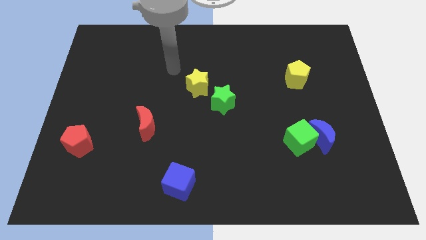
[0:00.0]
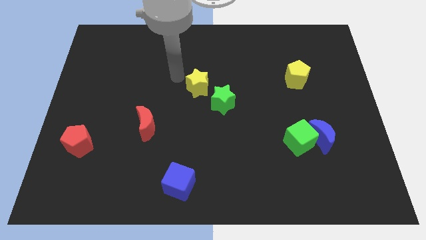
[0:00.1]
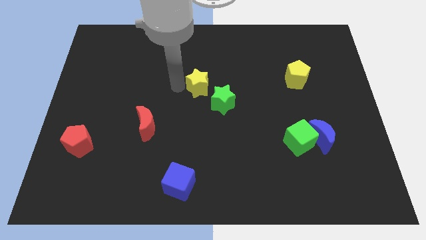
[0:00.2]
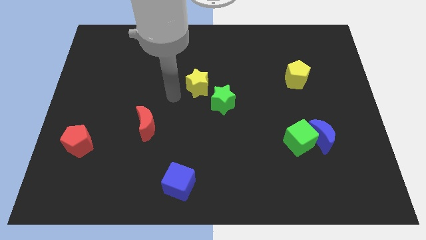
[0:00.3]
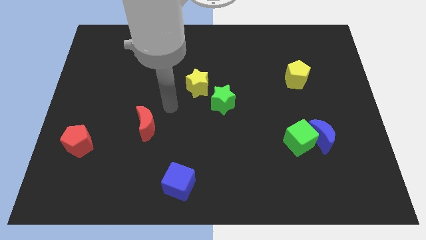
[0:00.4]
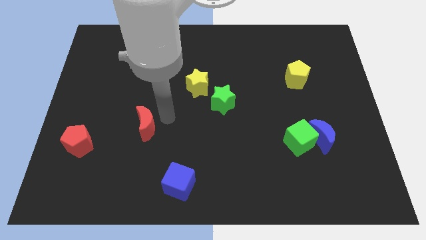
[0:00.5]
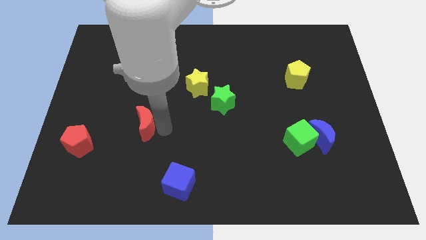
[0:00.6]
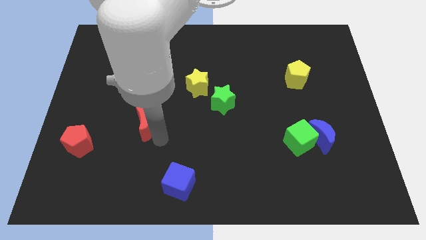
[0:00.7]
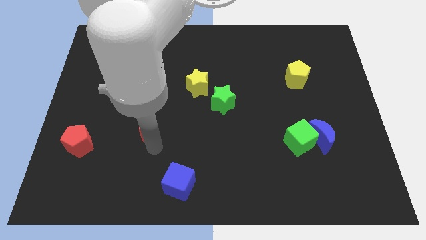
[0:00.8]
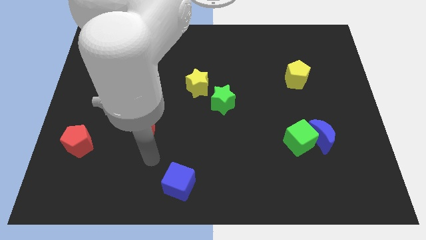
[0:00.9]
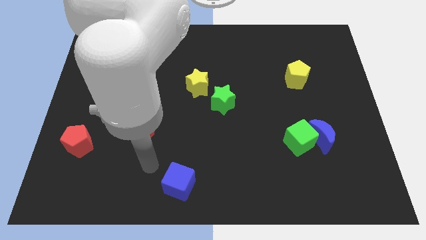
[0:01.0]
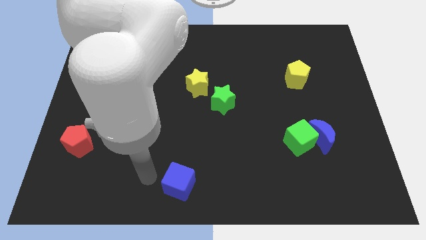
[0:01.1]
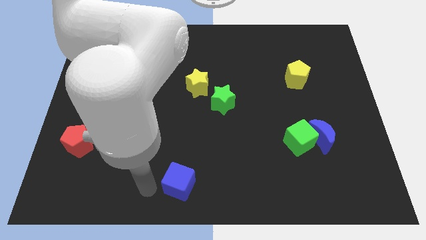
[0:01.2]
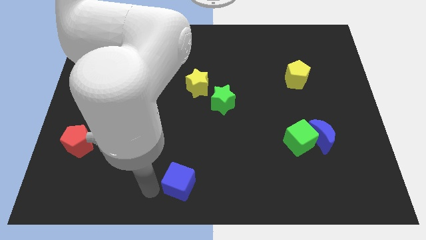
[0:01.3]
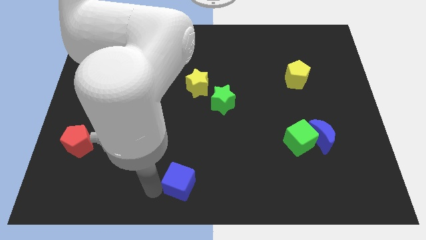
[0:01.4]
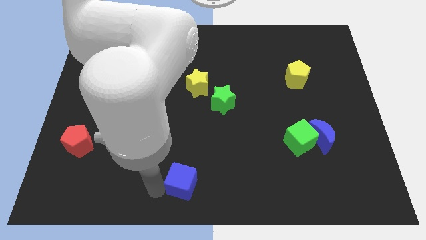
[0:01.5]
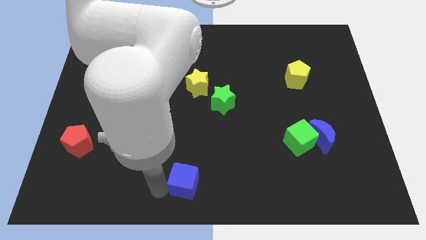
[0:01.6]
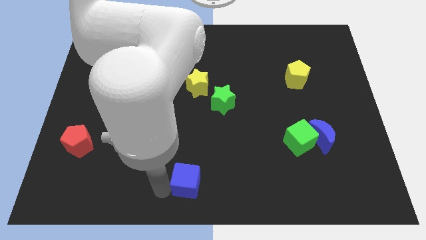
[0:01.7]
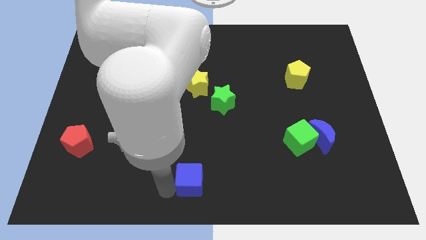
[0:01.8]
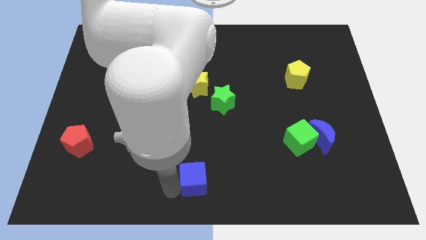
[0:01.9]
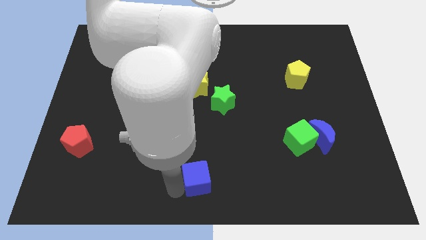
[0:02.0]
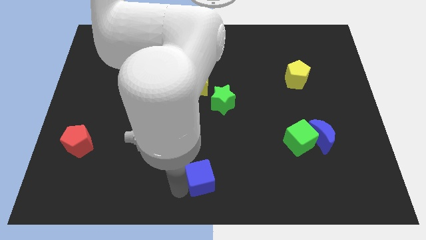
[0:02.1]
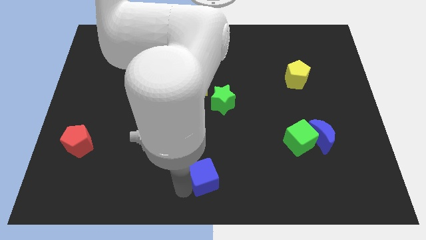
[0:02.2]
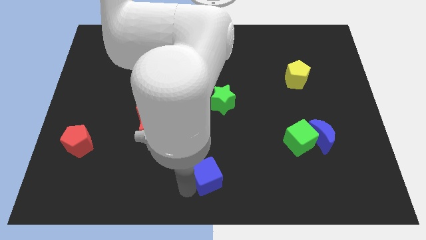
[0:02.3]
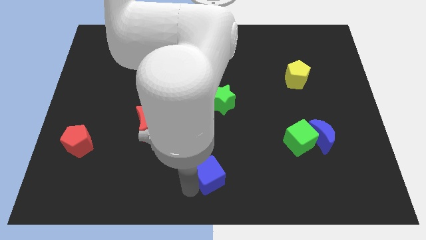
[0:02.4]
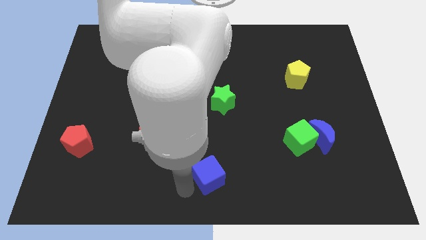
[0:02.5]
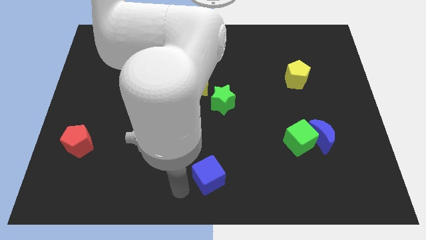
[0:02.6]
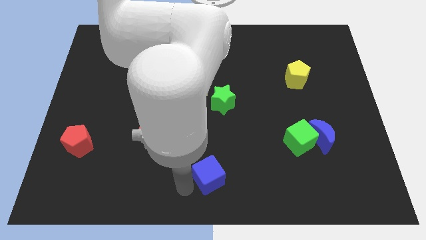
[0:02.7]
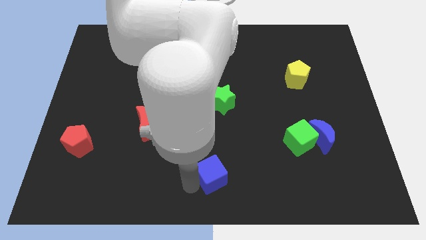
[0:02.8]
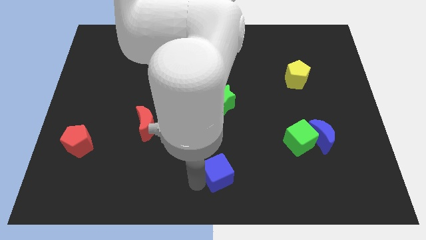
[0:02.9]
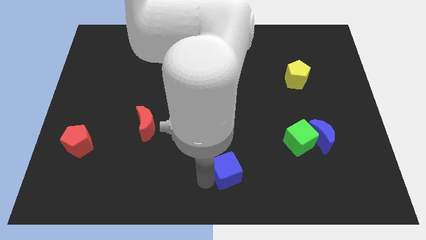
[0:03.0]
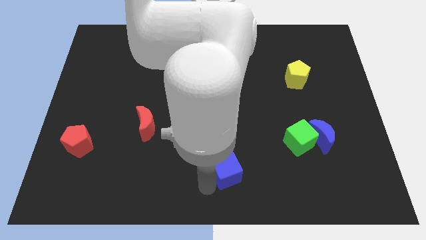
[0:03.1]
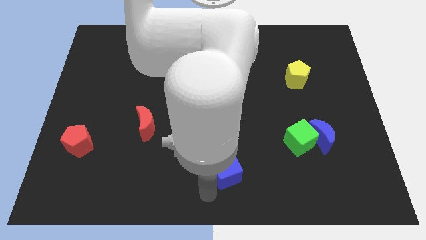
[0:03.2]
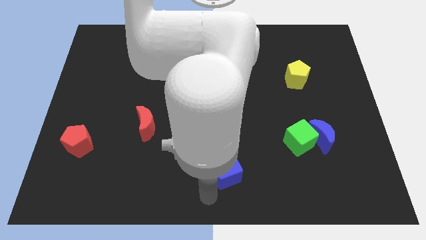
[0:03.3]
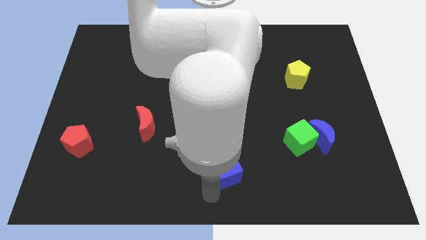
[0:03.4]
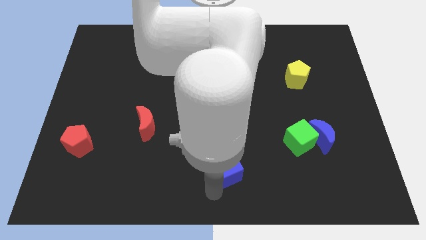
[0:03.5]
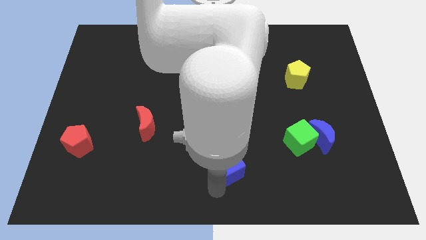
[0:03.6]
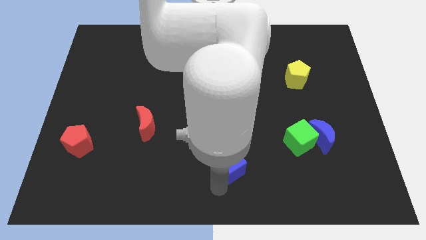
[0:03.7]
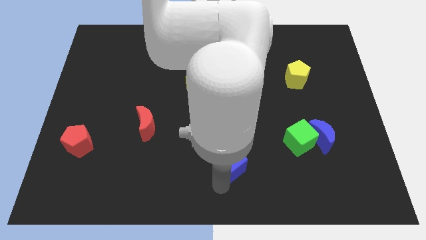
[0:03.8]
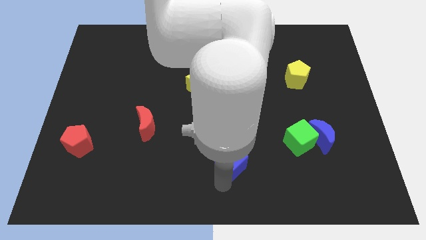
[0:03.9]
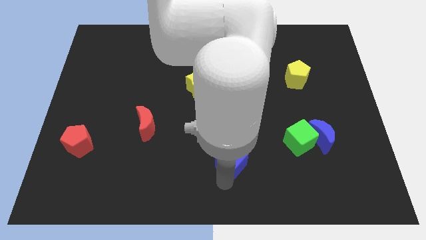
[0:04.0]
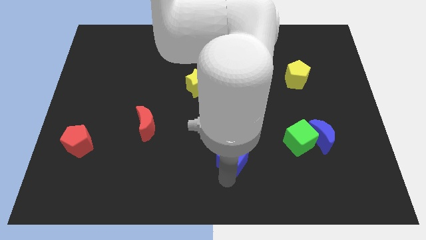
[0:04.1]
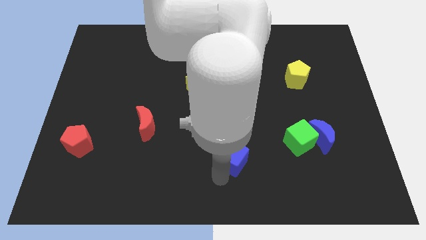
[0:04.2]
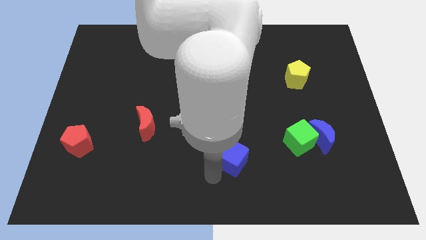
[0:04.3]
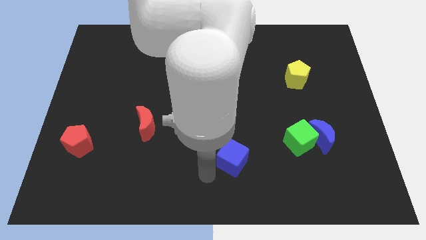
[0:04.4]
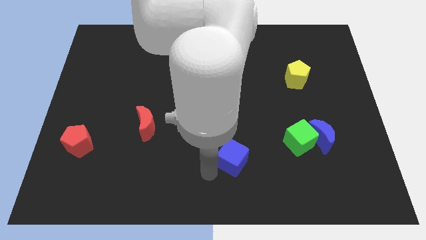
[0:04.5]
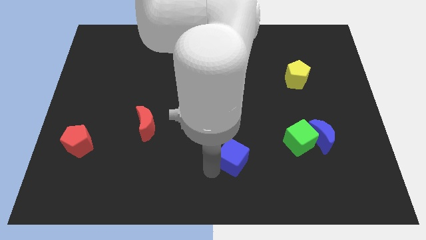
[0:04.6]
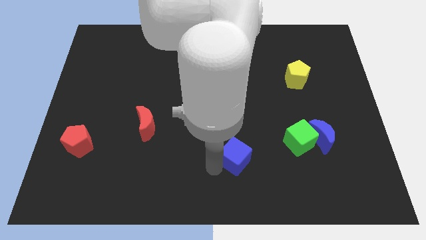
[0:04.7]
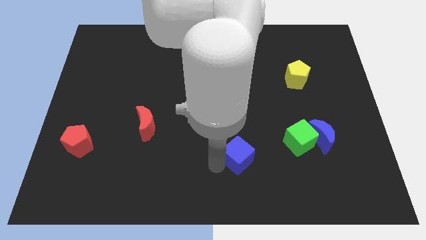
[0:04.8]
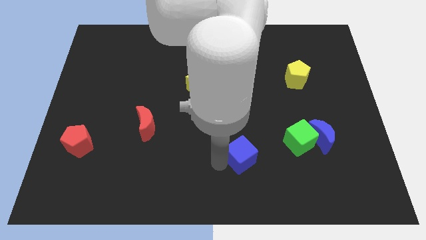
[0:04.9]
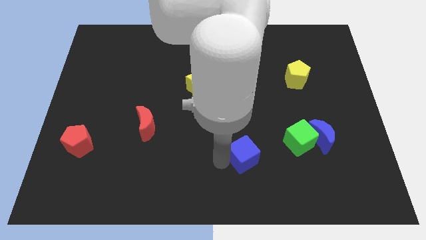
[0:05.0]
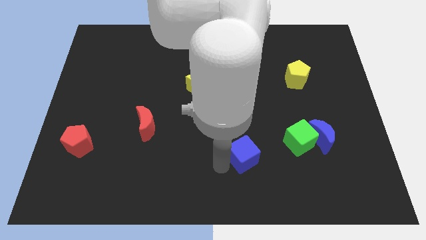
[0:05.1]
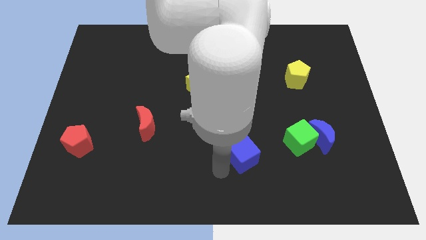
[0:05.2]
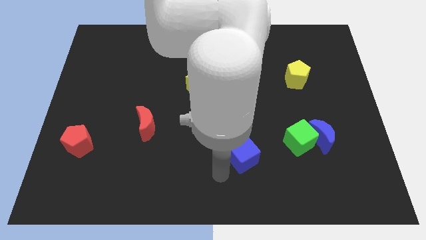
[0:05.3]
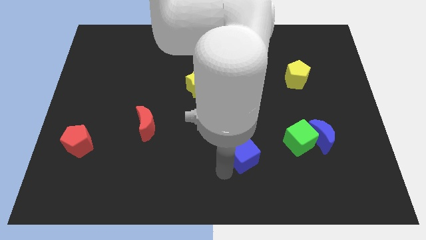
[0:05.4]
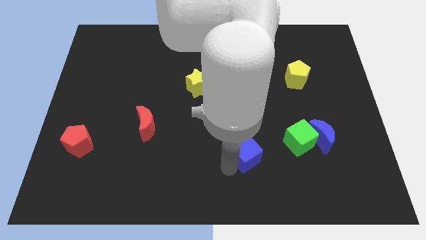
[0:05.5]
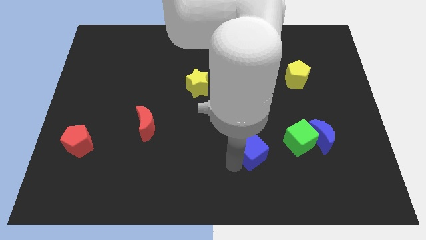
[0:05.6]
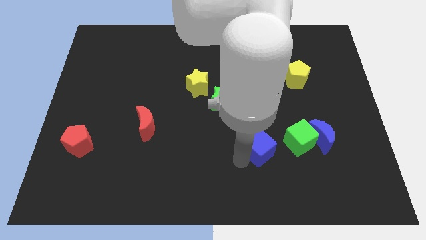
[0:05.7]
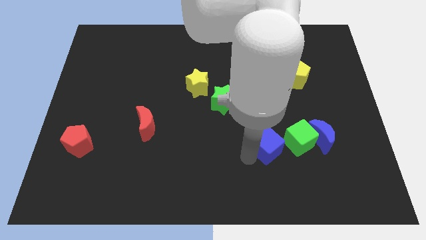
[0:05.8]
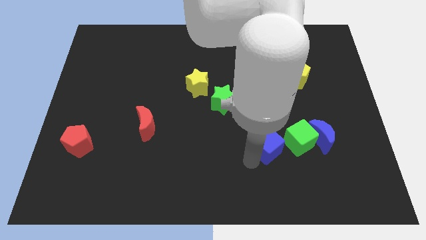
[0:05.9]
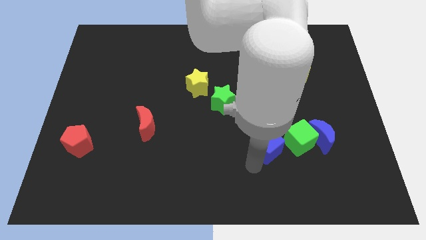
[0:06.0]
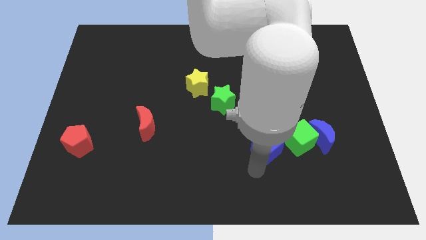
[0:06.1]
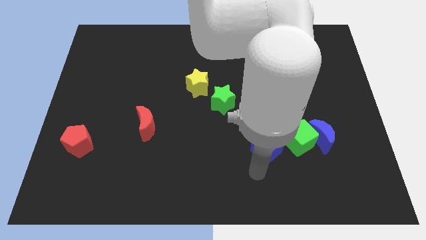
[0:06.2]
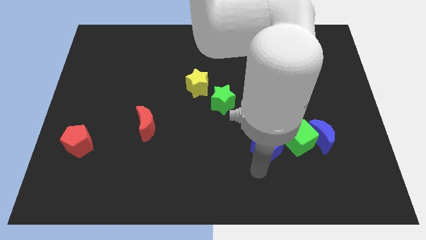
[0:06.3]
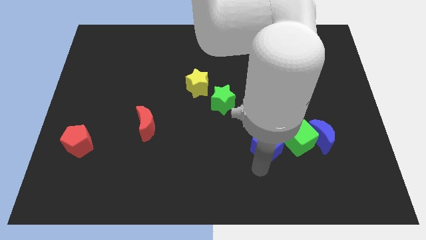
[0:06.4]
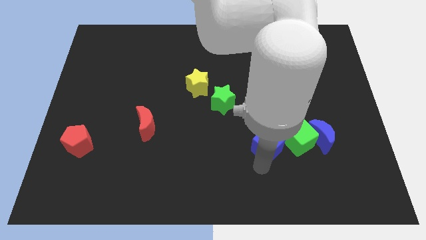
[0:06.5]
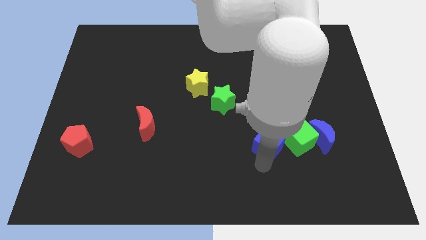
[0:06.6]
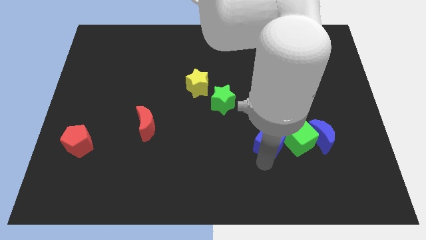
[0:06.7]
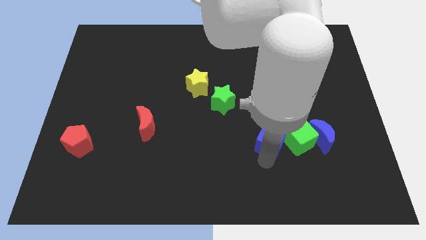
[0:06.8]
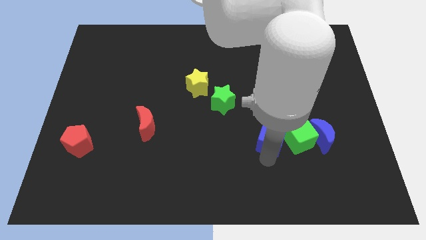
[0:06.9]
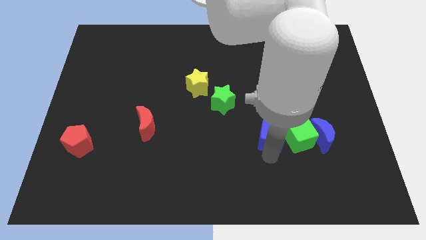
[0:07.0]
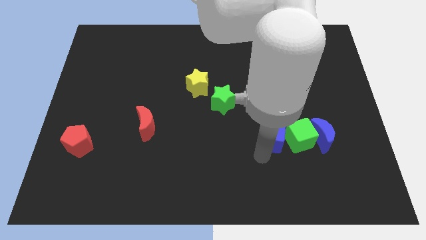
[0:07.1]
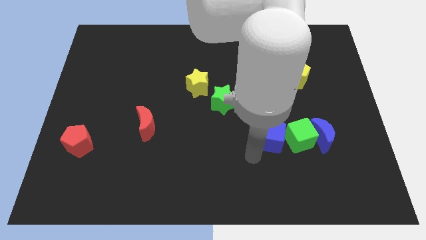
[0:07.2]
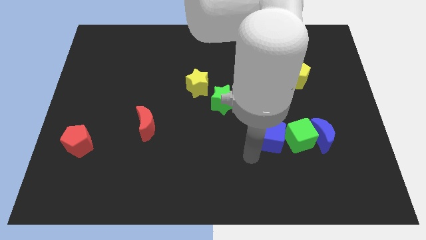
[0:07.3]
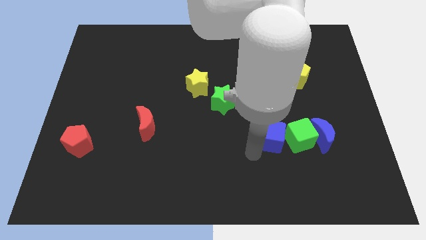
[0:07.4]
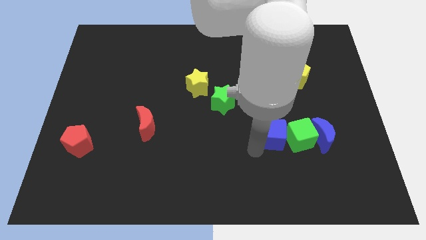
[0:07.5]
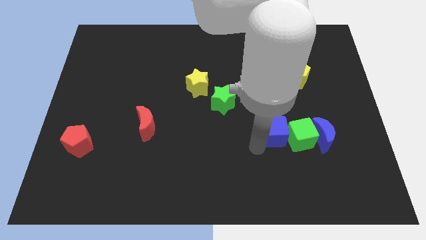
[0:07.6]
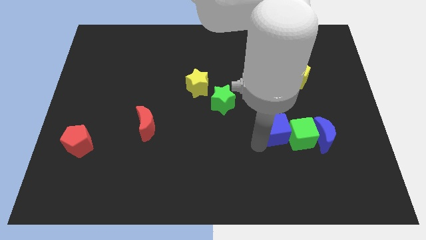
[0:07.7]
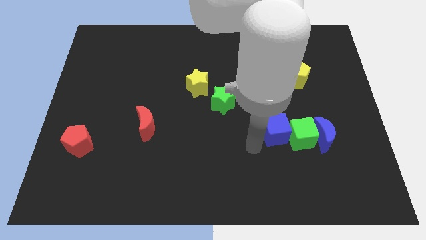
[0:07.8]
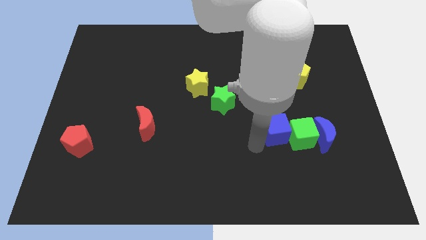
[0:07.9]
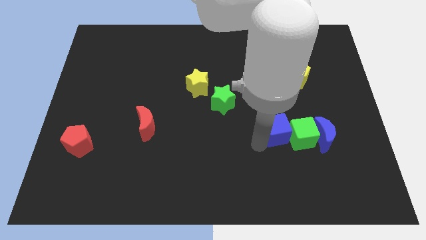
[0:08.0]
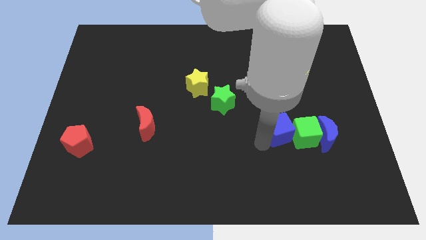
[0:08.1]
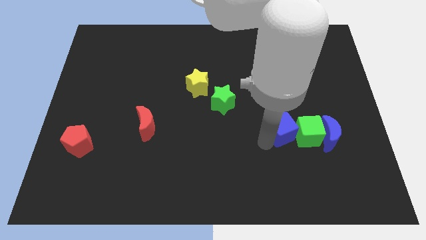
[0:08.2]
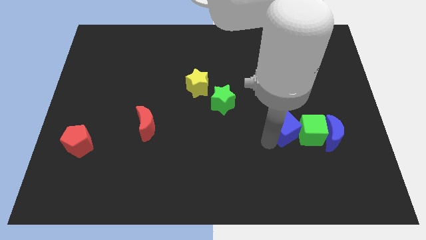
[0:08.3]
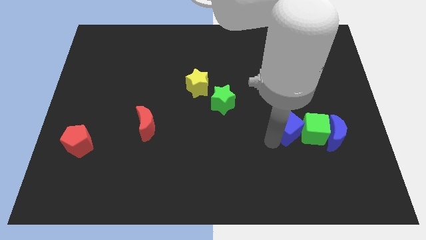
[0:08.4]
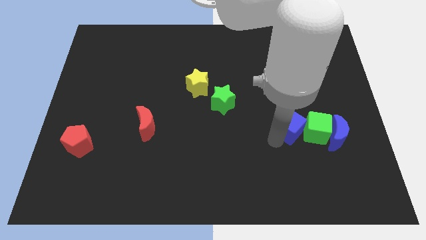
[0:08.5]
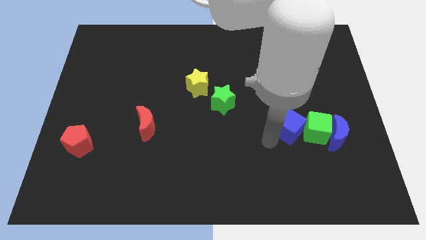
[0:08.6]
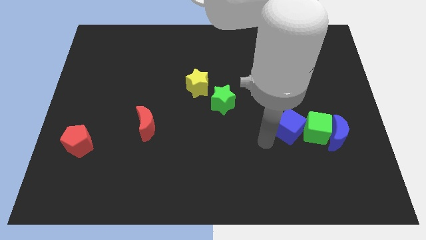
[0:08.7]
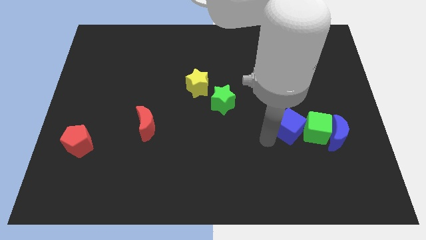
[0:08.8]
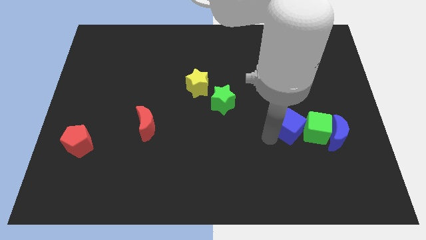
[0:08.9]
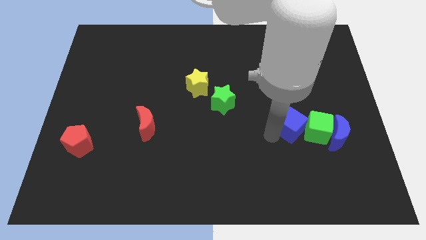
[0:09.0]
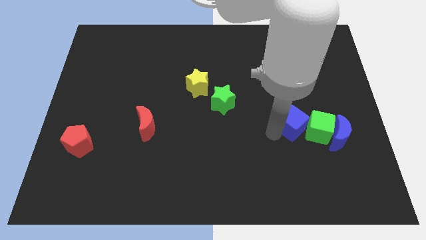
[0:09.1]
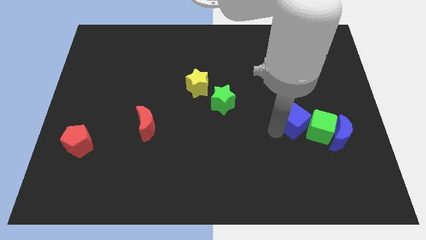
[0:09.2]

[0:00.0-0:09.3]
put the blue cube to the top left of the blue moon
